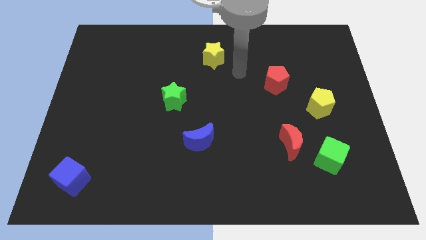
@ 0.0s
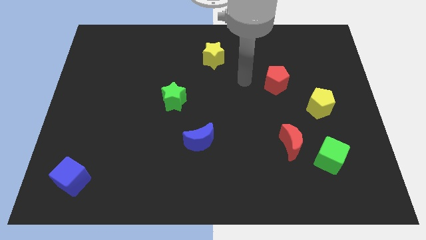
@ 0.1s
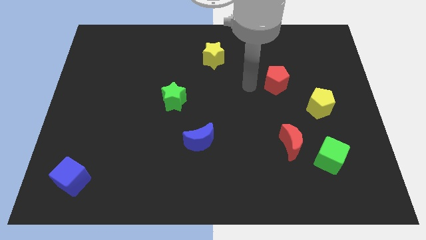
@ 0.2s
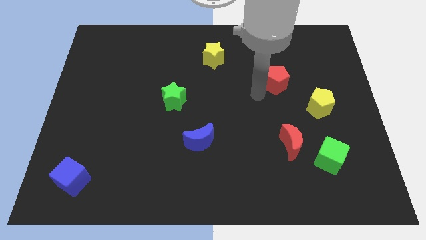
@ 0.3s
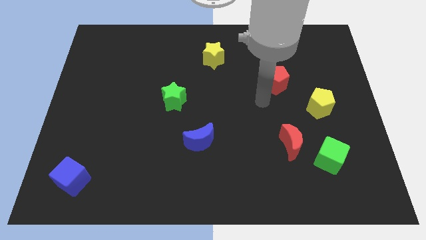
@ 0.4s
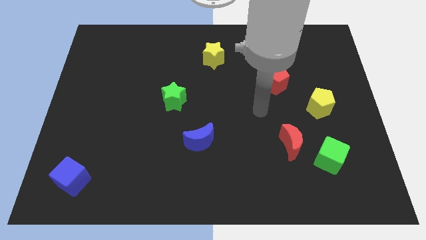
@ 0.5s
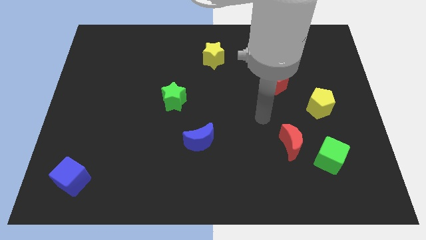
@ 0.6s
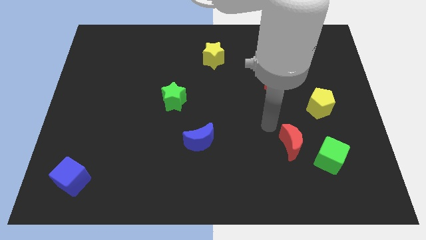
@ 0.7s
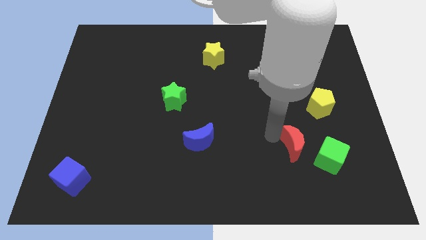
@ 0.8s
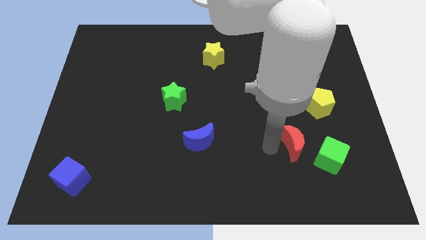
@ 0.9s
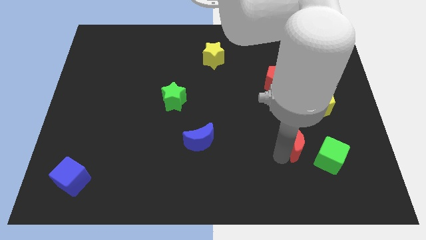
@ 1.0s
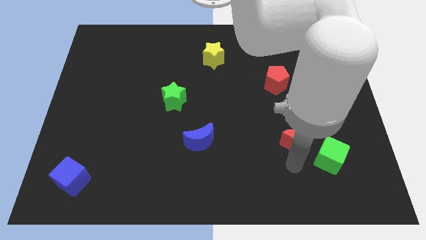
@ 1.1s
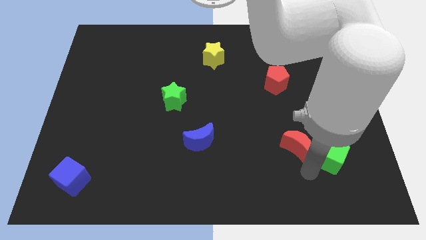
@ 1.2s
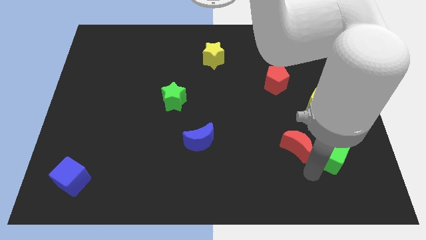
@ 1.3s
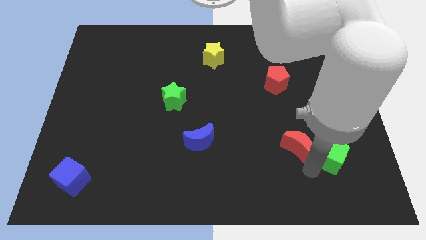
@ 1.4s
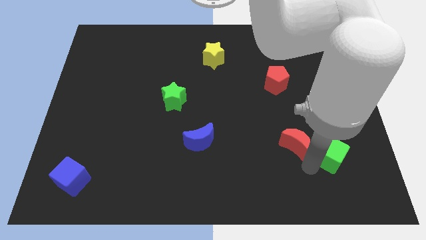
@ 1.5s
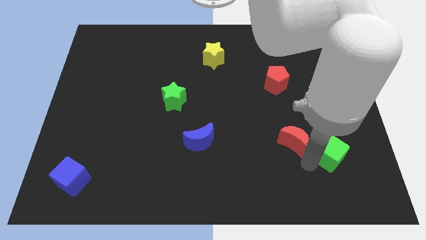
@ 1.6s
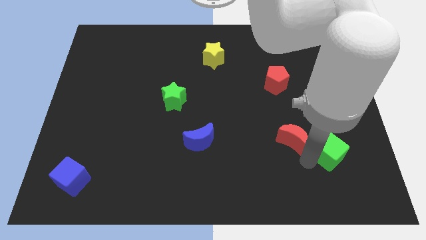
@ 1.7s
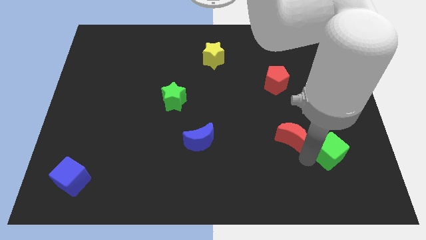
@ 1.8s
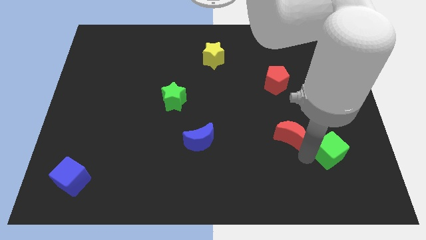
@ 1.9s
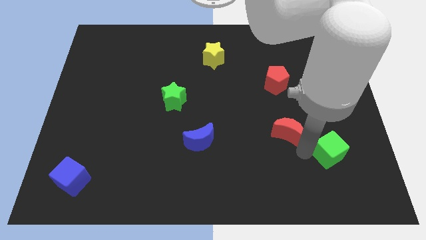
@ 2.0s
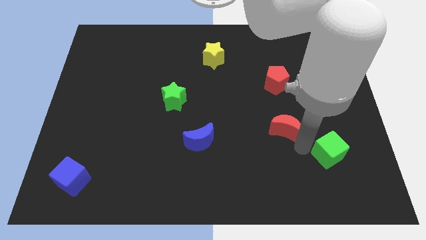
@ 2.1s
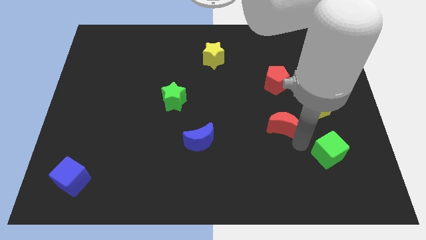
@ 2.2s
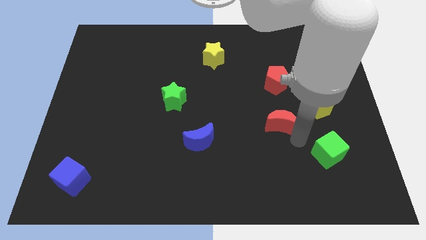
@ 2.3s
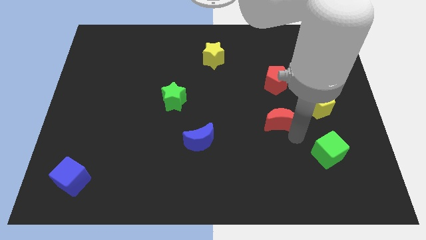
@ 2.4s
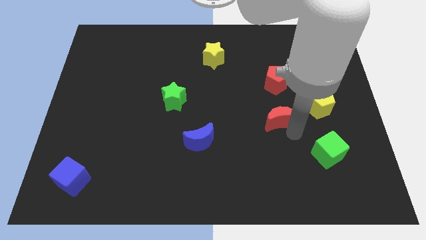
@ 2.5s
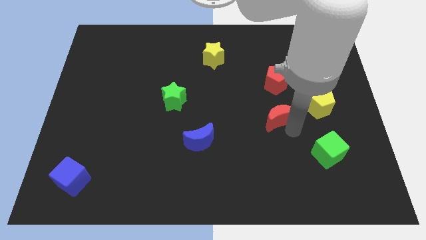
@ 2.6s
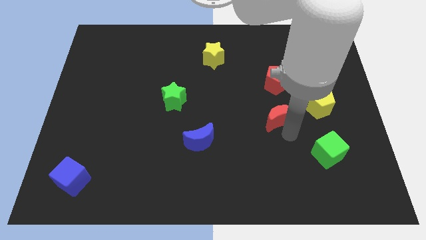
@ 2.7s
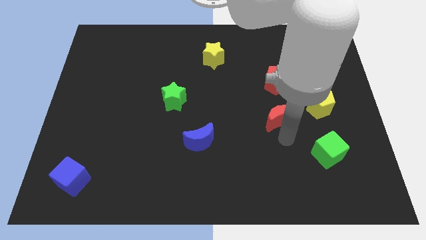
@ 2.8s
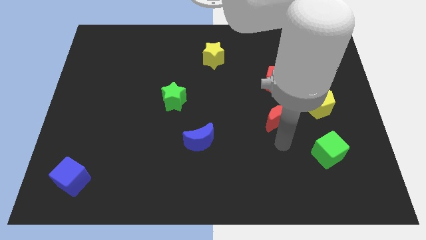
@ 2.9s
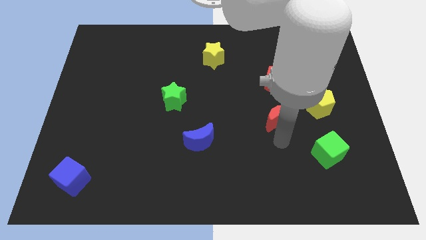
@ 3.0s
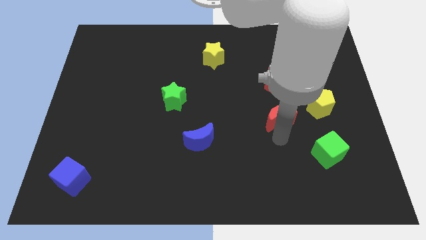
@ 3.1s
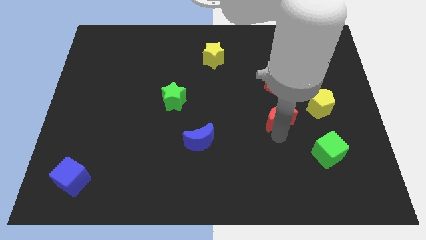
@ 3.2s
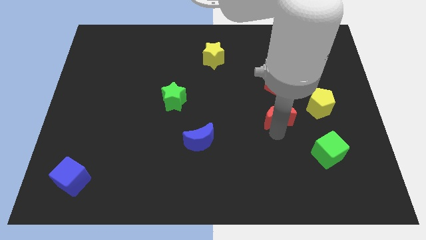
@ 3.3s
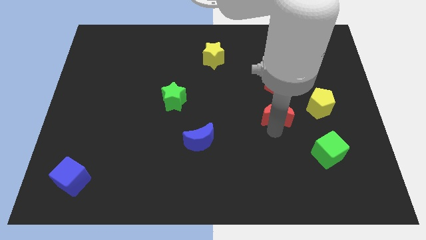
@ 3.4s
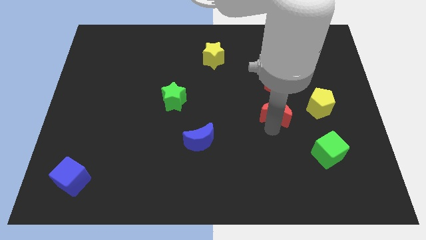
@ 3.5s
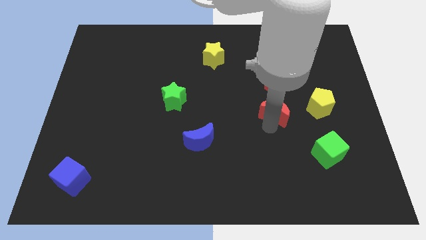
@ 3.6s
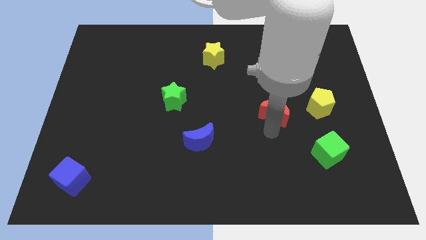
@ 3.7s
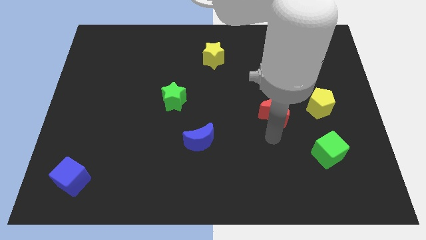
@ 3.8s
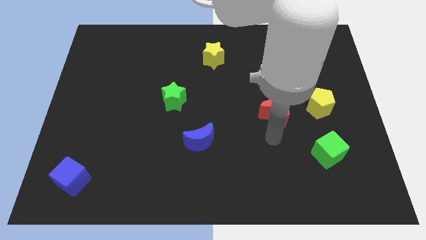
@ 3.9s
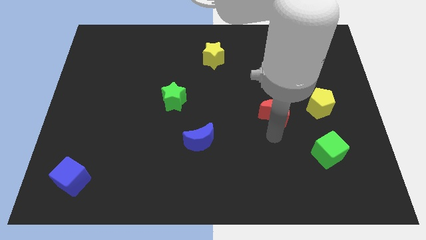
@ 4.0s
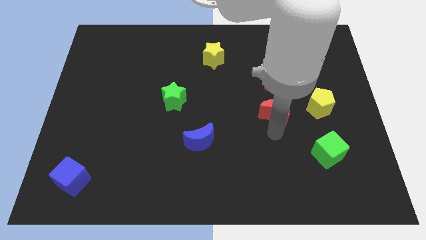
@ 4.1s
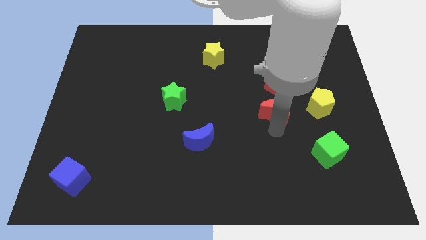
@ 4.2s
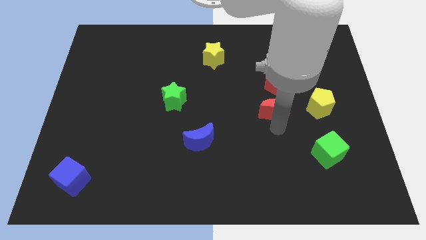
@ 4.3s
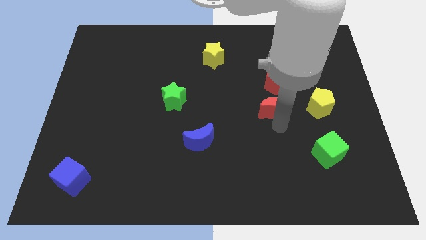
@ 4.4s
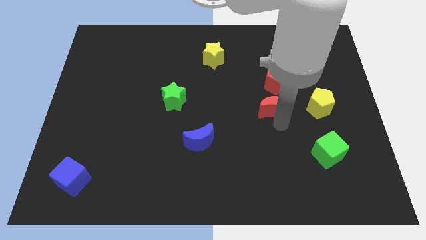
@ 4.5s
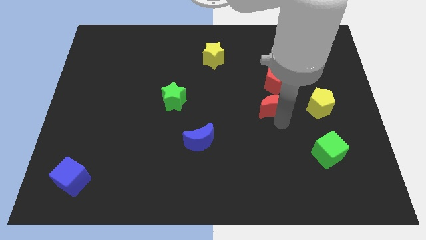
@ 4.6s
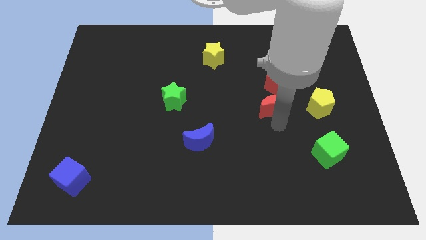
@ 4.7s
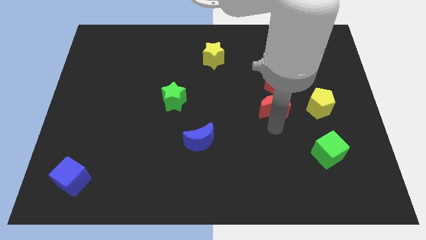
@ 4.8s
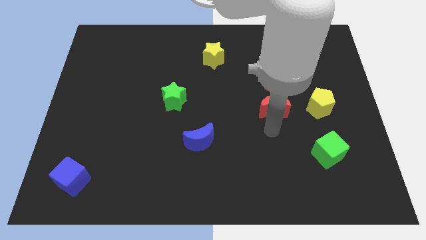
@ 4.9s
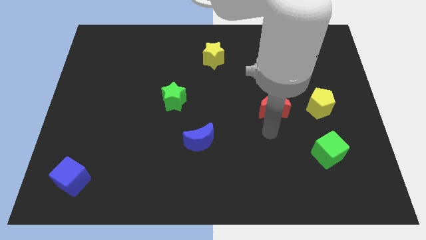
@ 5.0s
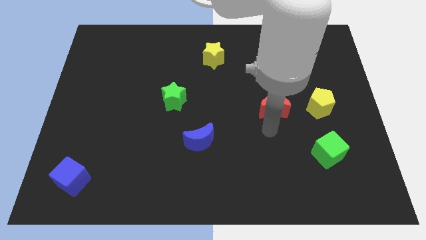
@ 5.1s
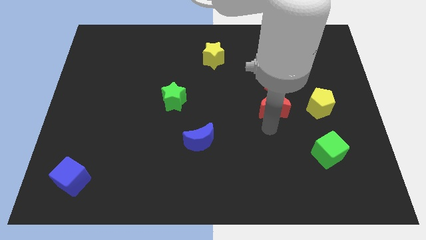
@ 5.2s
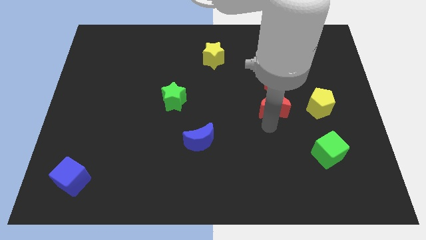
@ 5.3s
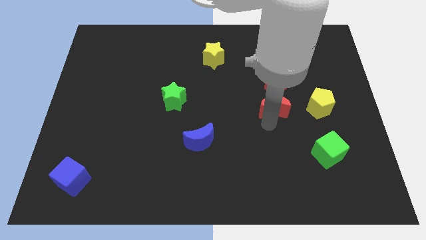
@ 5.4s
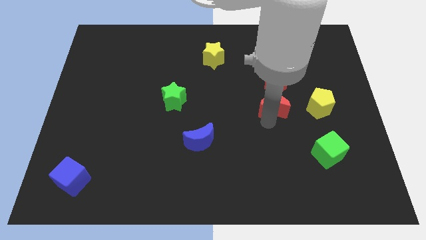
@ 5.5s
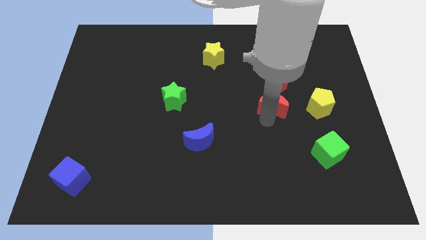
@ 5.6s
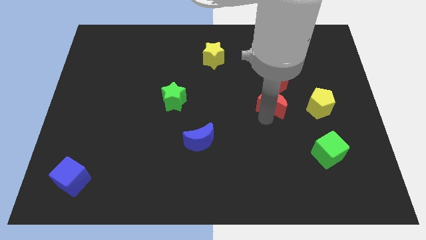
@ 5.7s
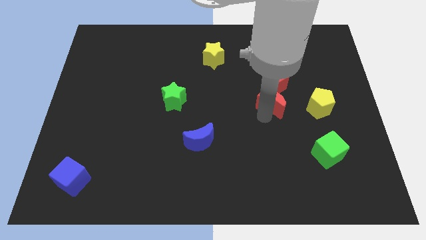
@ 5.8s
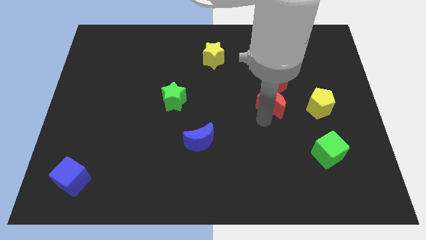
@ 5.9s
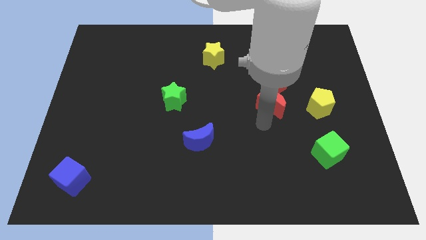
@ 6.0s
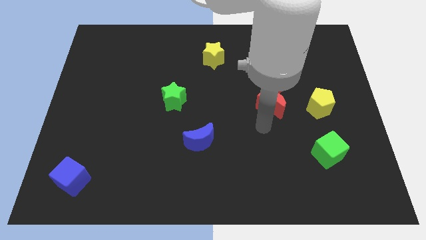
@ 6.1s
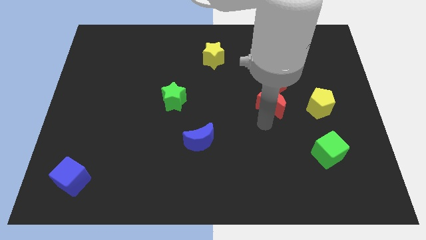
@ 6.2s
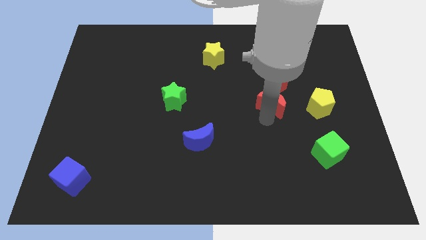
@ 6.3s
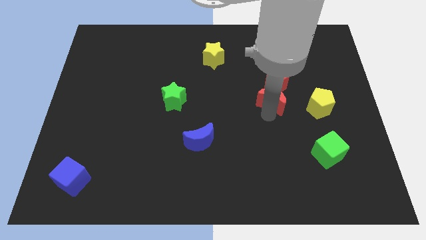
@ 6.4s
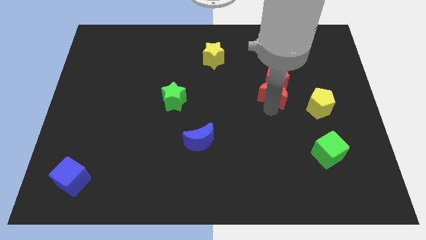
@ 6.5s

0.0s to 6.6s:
slide the red moon towards the red pentagon

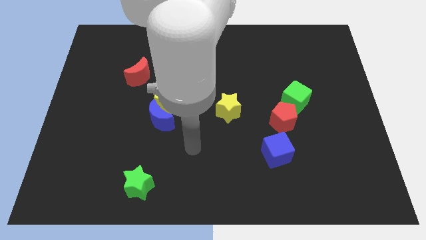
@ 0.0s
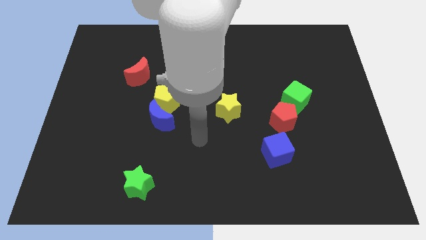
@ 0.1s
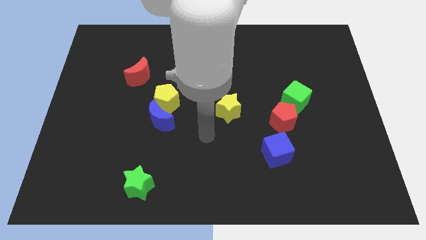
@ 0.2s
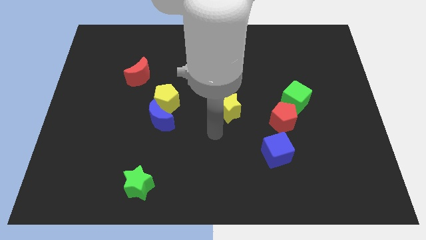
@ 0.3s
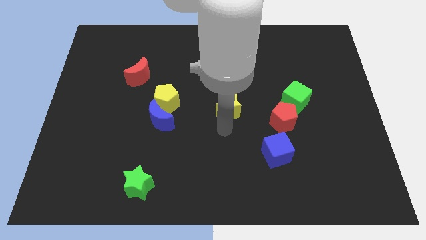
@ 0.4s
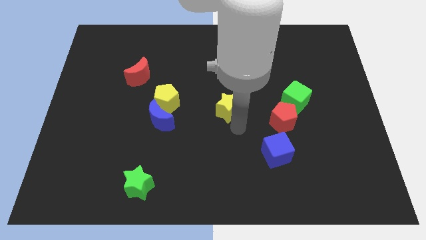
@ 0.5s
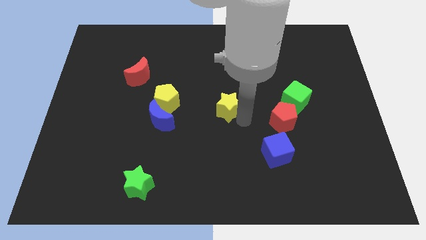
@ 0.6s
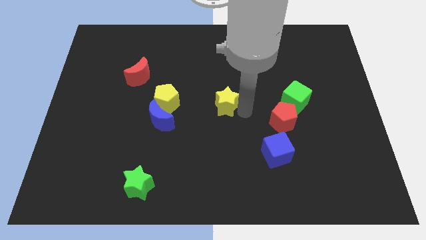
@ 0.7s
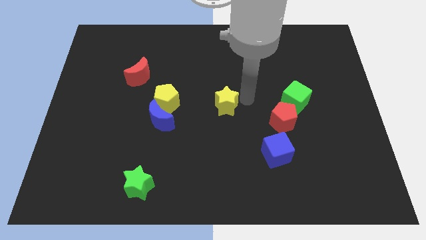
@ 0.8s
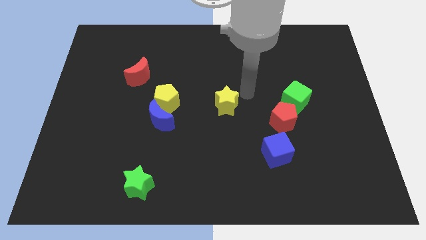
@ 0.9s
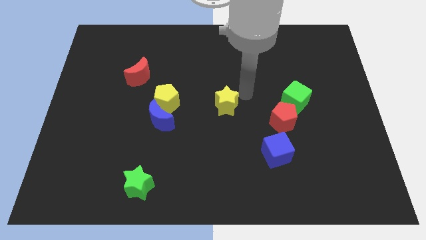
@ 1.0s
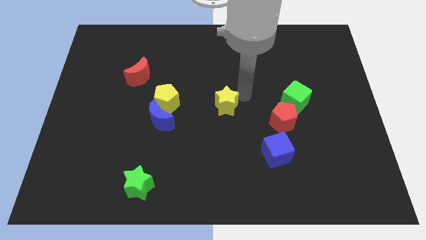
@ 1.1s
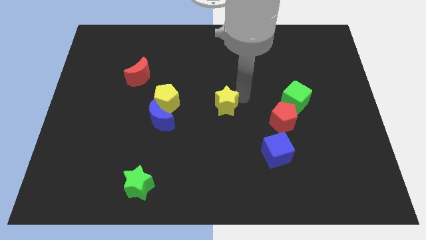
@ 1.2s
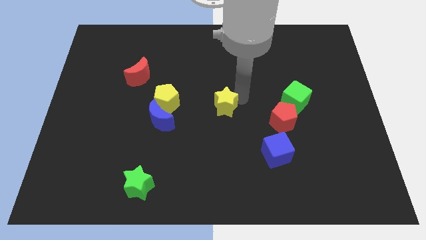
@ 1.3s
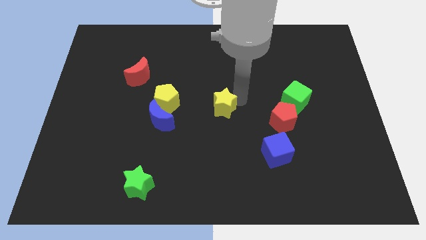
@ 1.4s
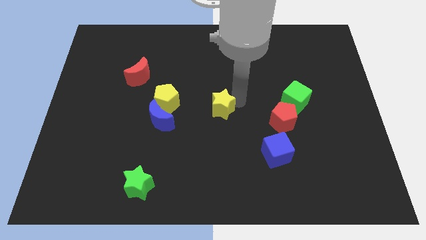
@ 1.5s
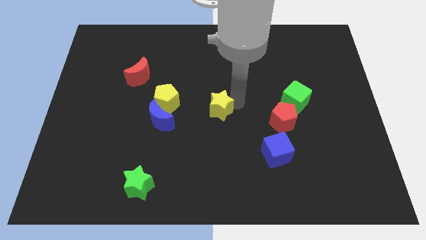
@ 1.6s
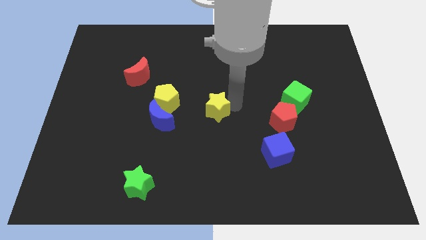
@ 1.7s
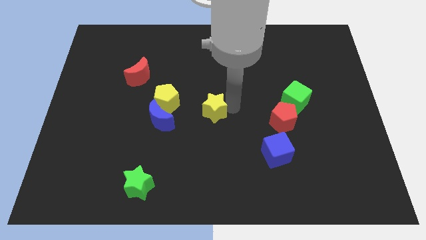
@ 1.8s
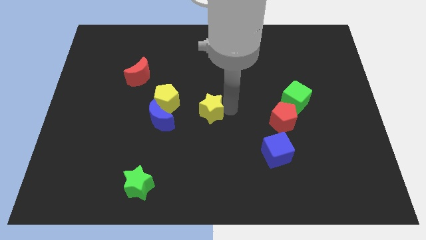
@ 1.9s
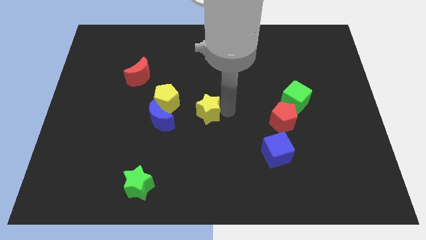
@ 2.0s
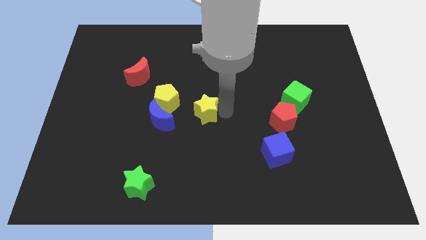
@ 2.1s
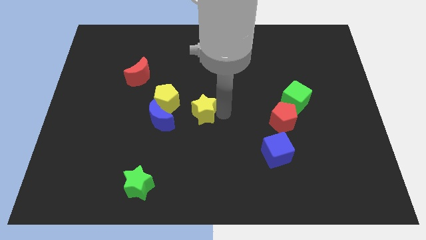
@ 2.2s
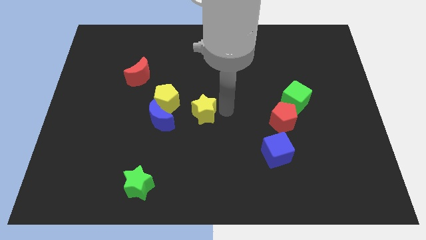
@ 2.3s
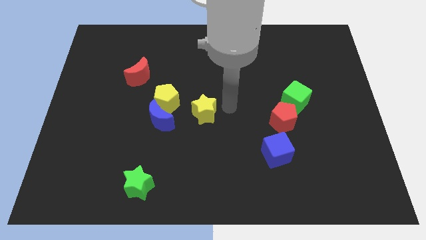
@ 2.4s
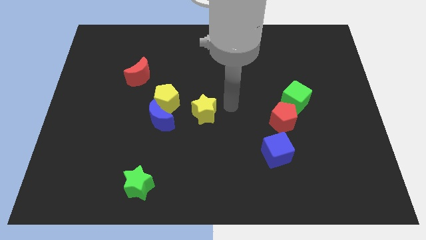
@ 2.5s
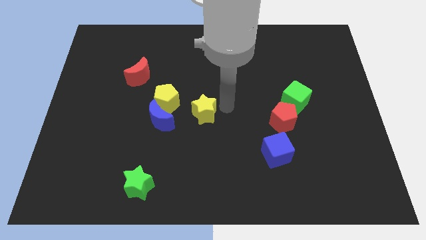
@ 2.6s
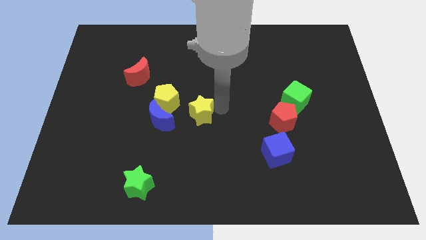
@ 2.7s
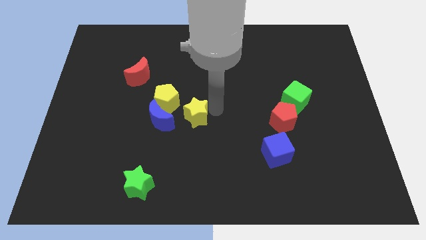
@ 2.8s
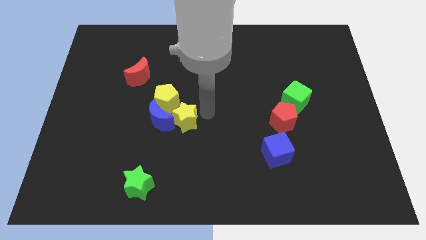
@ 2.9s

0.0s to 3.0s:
push the yellow star close to the blue moon
